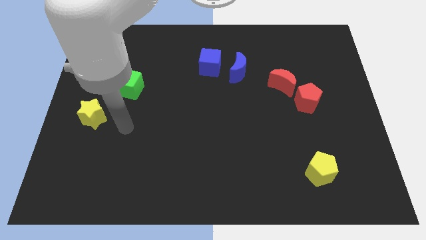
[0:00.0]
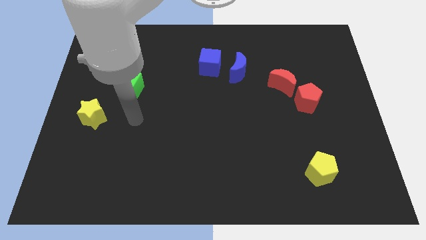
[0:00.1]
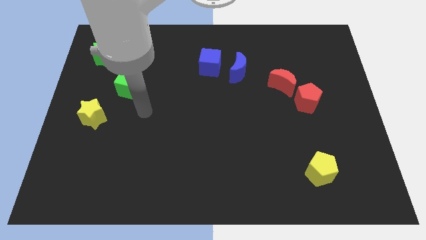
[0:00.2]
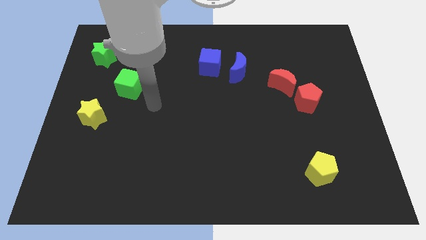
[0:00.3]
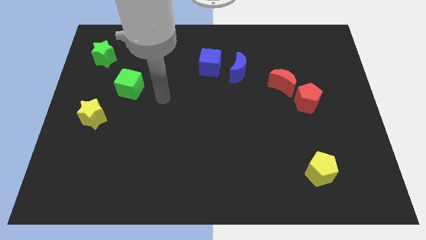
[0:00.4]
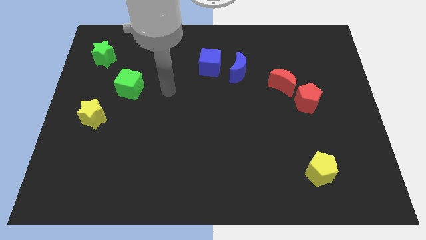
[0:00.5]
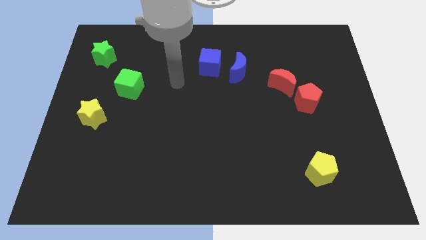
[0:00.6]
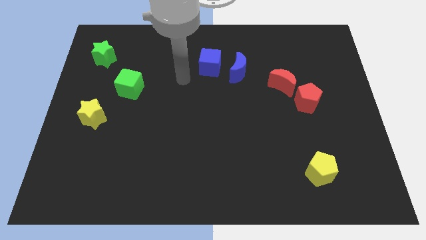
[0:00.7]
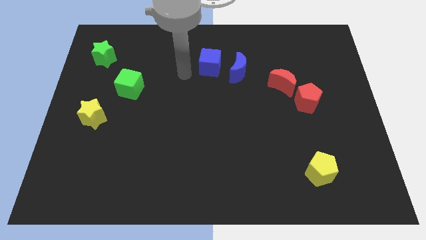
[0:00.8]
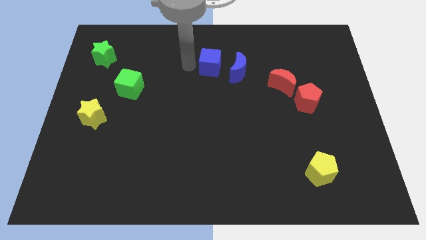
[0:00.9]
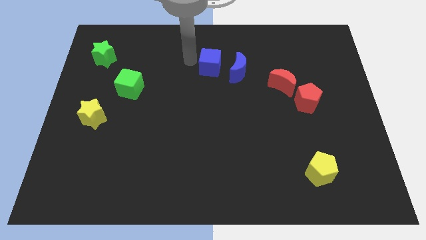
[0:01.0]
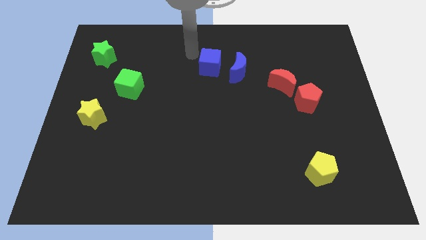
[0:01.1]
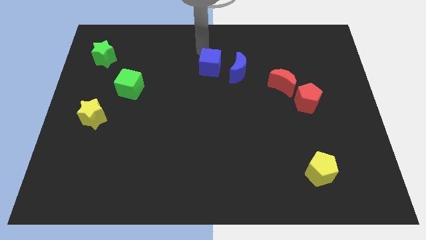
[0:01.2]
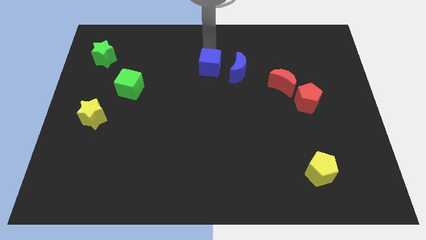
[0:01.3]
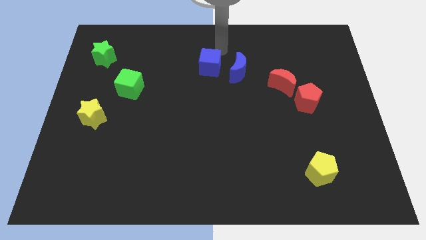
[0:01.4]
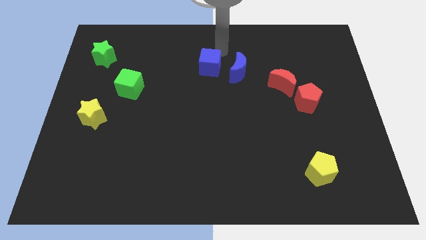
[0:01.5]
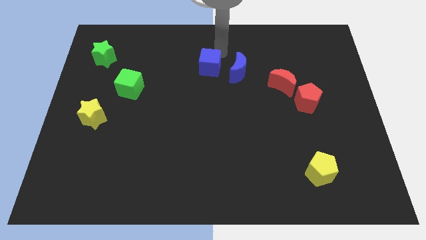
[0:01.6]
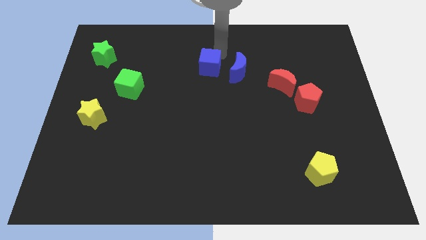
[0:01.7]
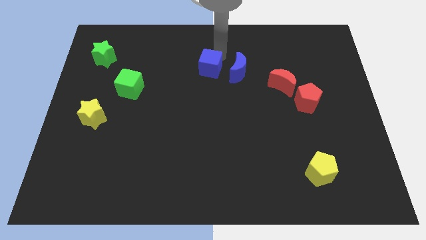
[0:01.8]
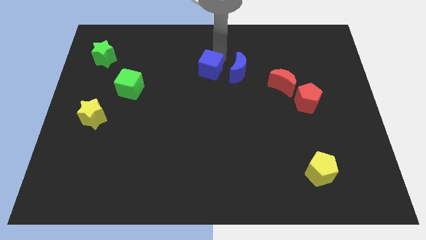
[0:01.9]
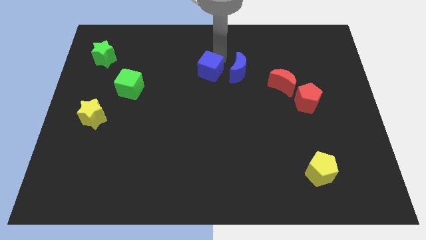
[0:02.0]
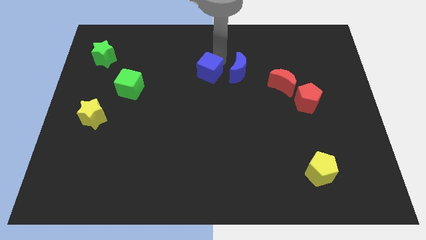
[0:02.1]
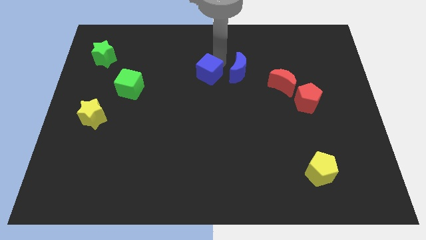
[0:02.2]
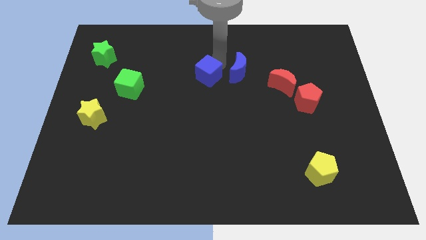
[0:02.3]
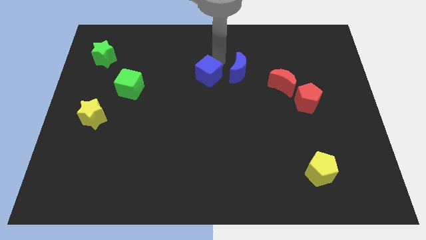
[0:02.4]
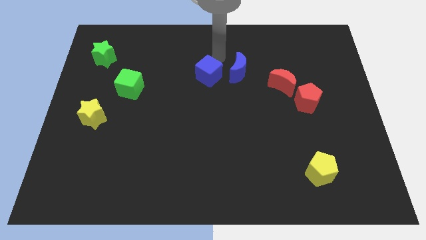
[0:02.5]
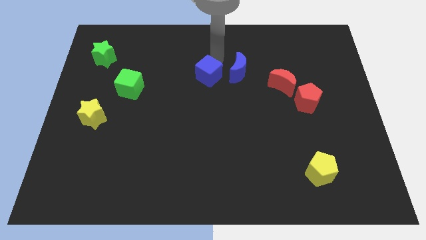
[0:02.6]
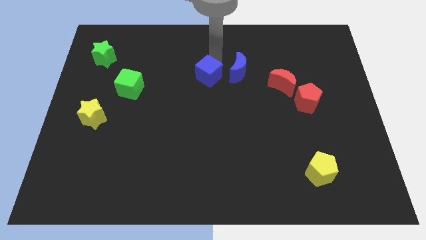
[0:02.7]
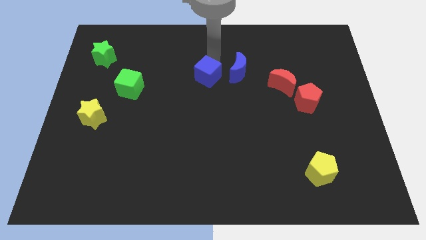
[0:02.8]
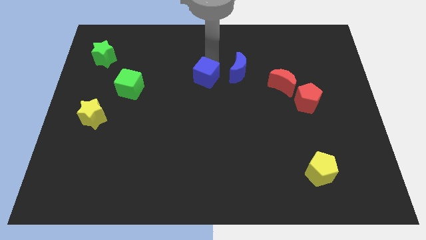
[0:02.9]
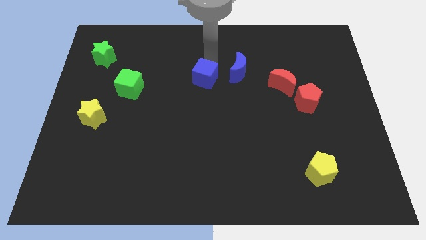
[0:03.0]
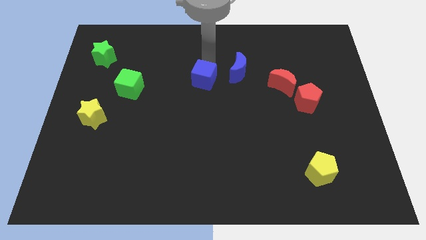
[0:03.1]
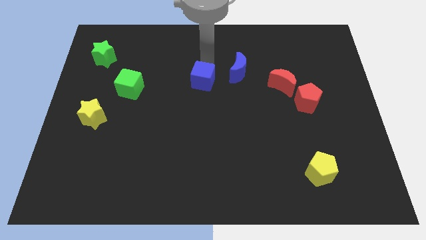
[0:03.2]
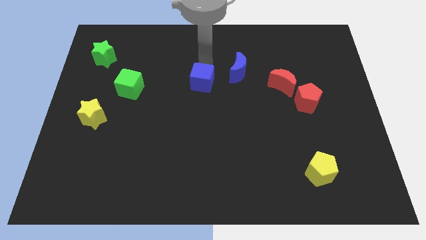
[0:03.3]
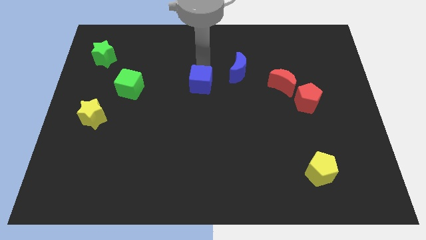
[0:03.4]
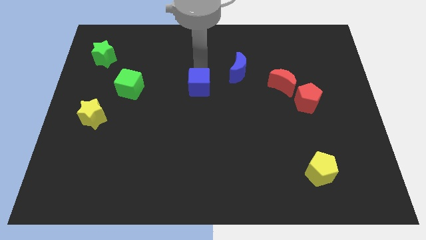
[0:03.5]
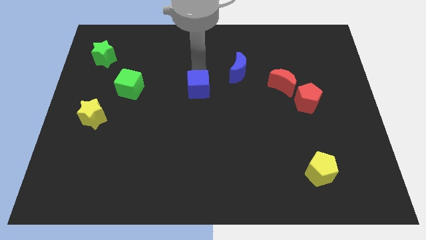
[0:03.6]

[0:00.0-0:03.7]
slide the blue cube a bit down

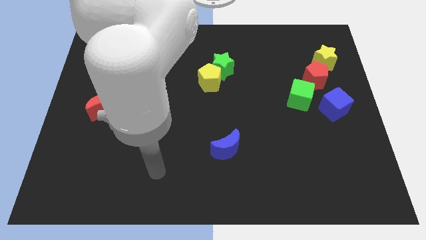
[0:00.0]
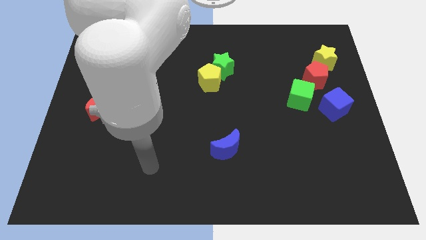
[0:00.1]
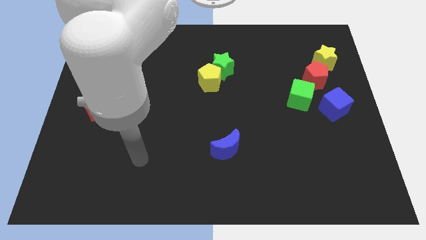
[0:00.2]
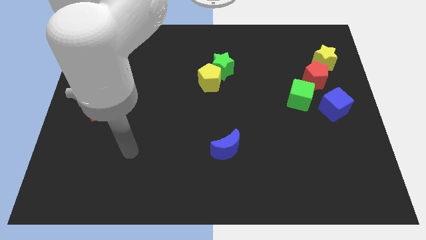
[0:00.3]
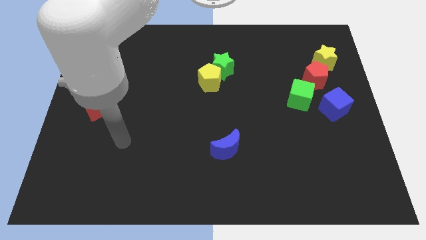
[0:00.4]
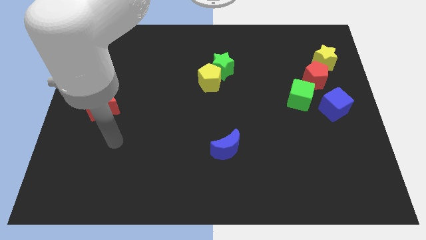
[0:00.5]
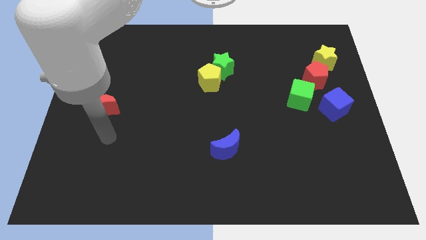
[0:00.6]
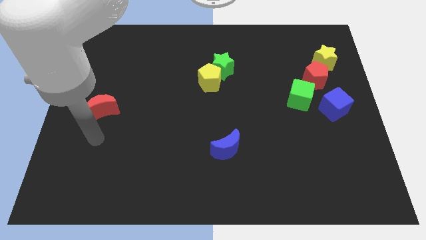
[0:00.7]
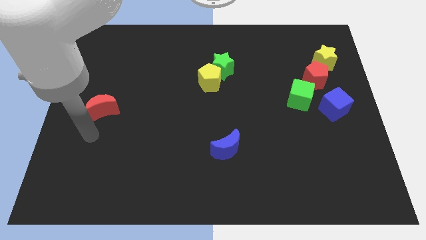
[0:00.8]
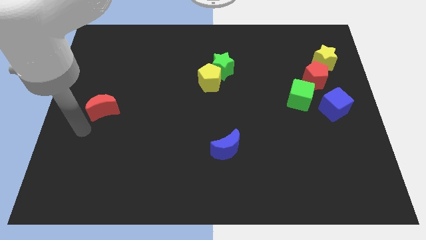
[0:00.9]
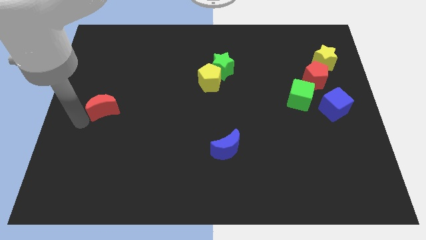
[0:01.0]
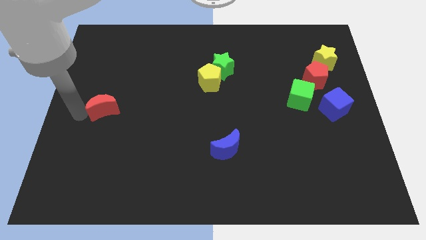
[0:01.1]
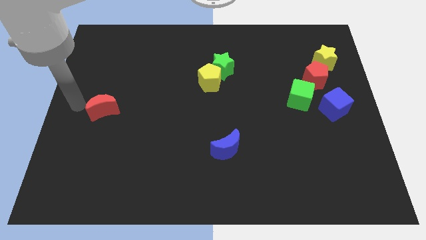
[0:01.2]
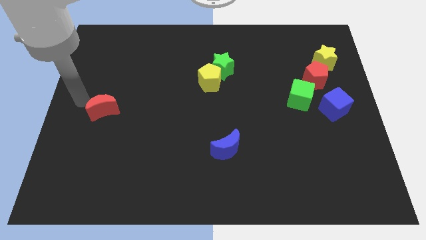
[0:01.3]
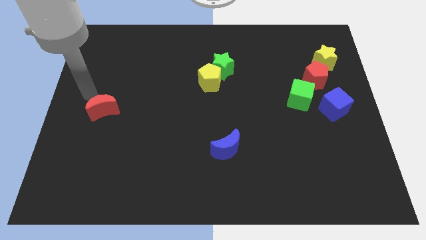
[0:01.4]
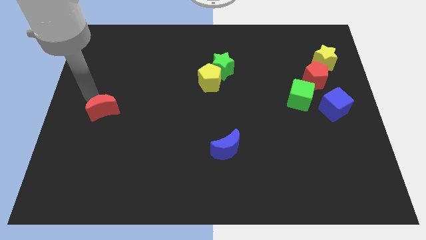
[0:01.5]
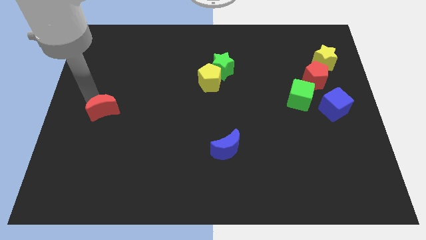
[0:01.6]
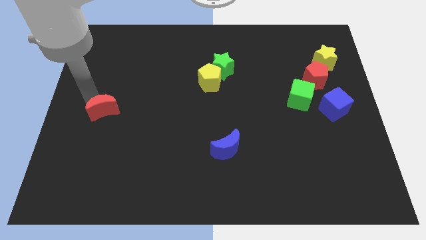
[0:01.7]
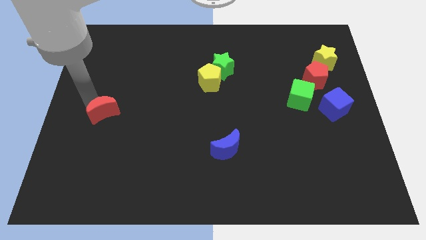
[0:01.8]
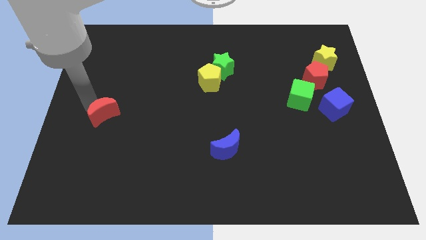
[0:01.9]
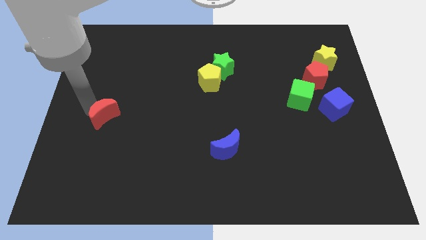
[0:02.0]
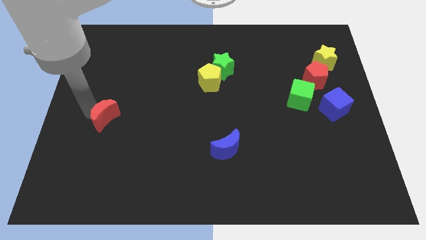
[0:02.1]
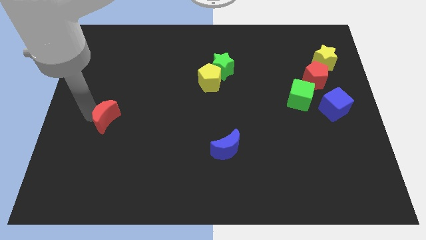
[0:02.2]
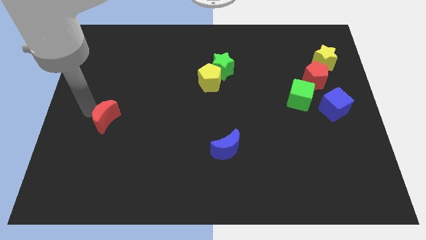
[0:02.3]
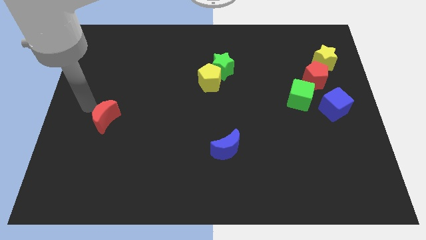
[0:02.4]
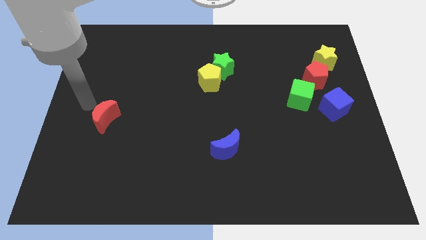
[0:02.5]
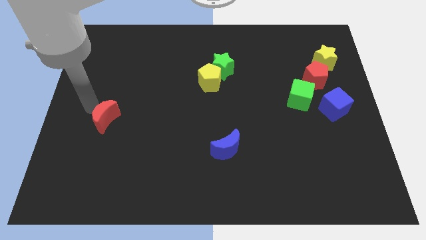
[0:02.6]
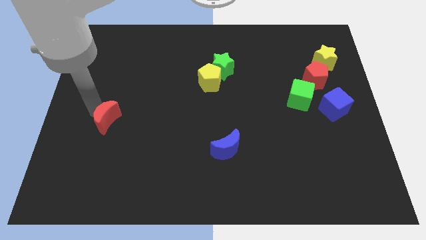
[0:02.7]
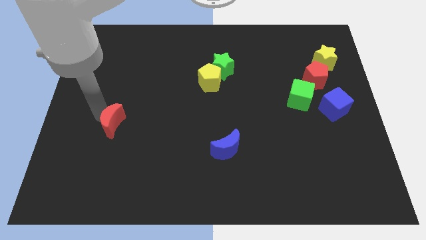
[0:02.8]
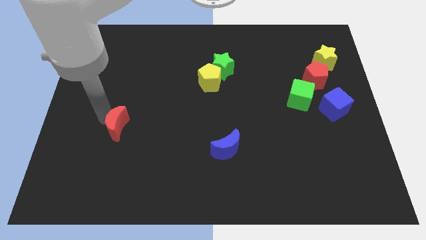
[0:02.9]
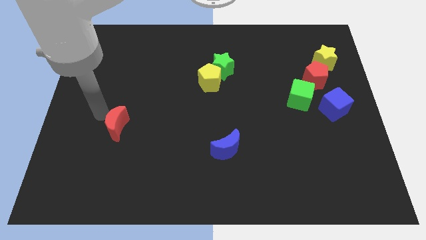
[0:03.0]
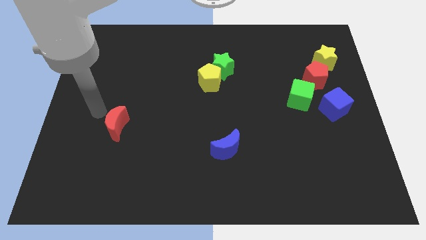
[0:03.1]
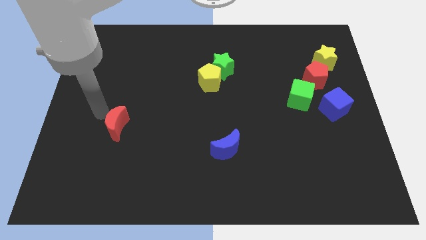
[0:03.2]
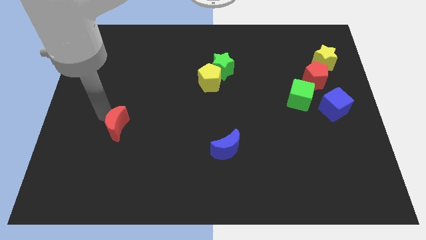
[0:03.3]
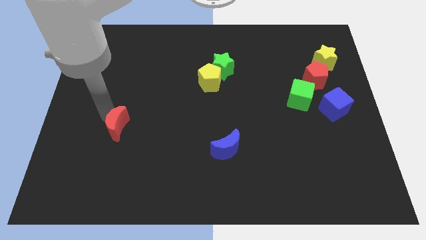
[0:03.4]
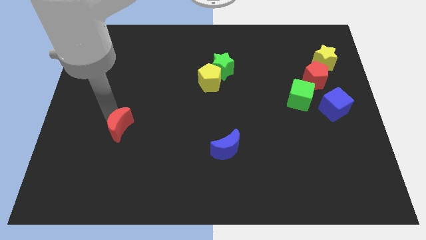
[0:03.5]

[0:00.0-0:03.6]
push the red moon somewhat down and right diagonally

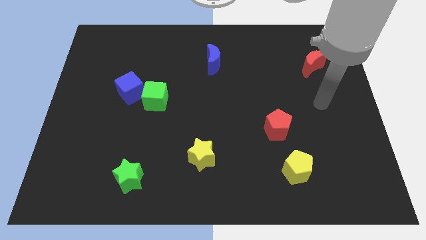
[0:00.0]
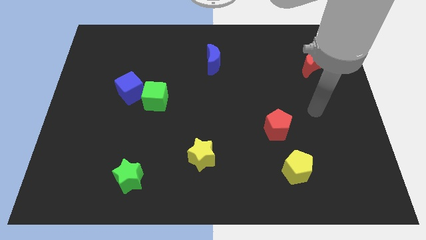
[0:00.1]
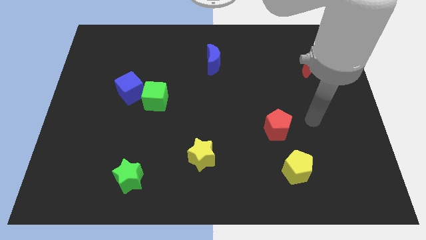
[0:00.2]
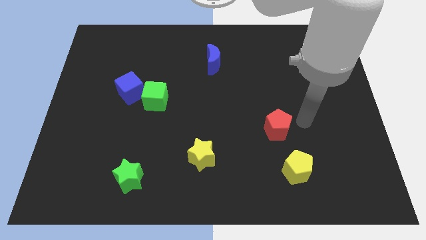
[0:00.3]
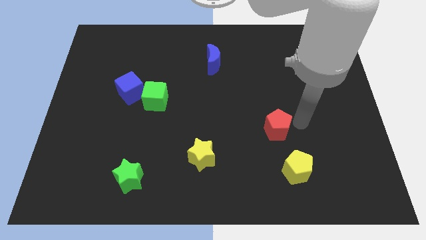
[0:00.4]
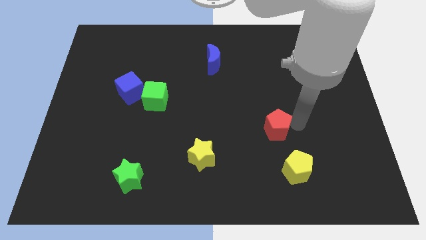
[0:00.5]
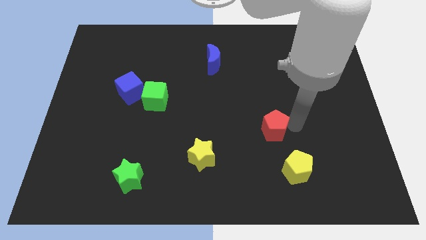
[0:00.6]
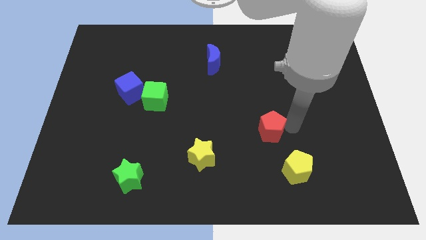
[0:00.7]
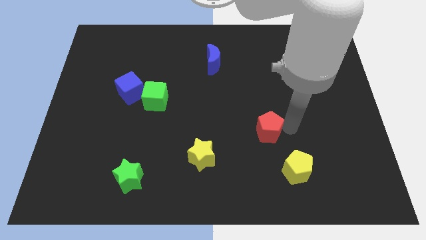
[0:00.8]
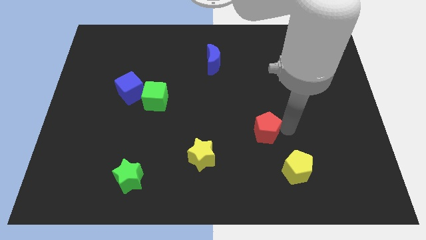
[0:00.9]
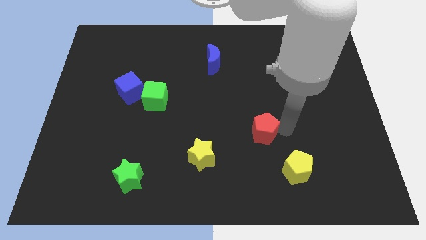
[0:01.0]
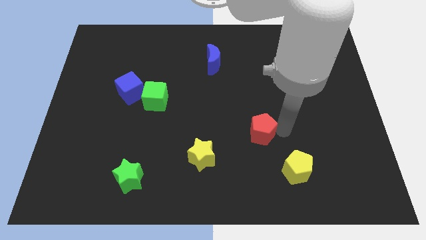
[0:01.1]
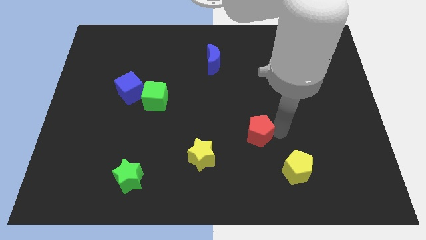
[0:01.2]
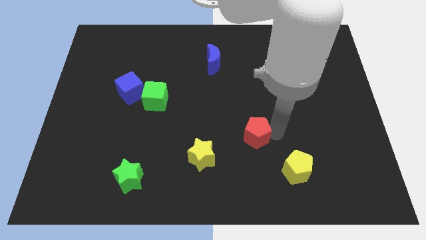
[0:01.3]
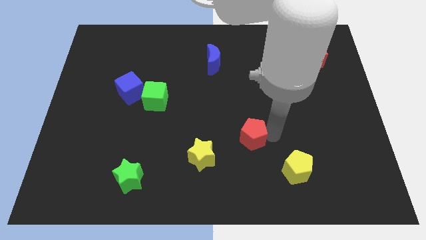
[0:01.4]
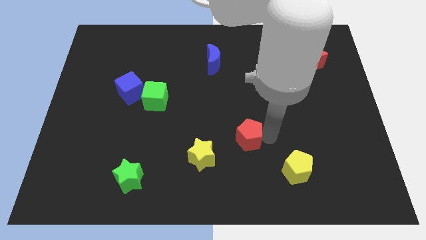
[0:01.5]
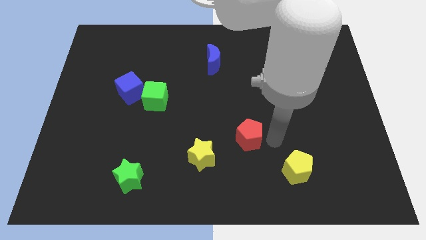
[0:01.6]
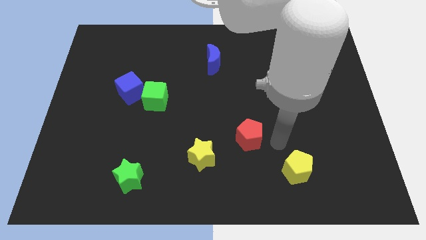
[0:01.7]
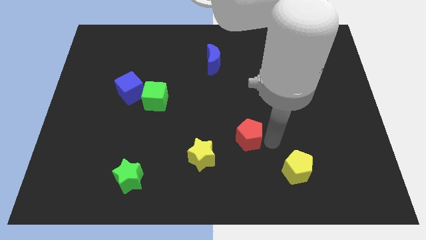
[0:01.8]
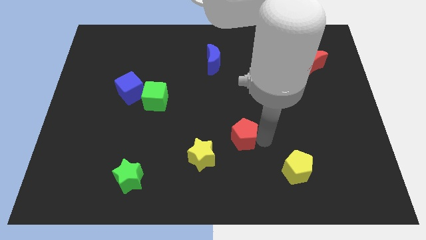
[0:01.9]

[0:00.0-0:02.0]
slide the red pentagon left somewhat
